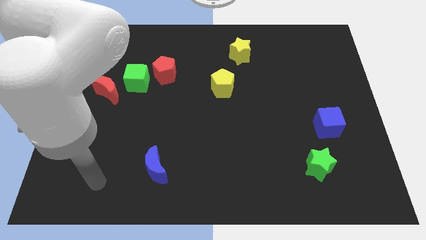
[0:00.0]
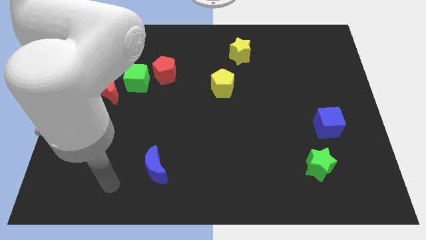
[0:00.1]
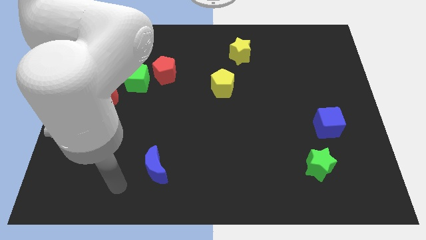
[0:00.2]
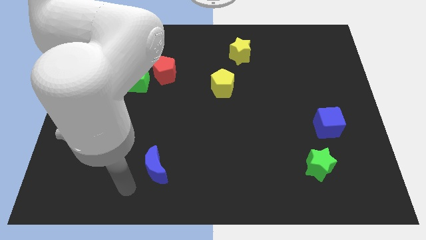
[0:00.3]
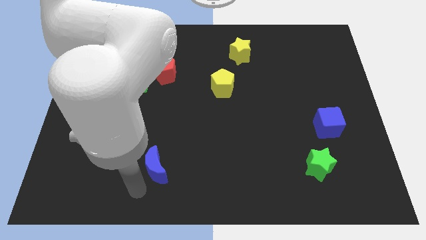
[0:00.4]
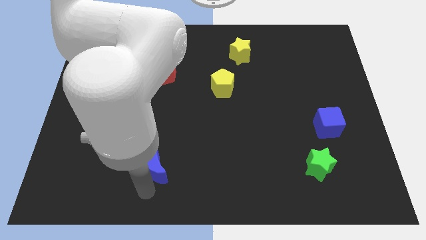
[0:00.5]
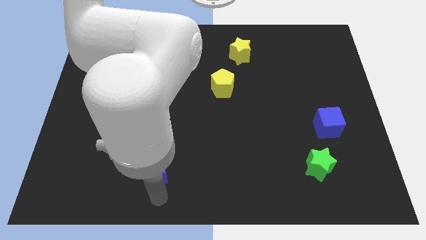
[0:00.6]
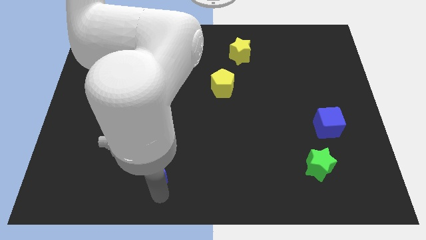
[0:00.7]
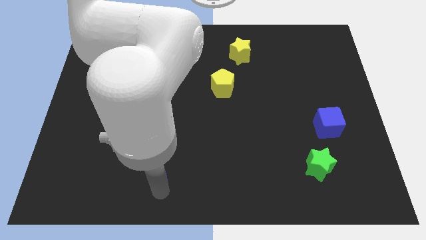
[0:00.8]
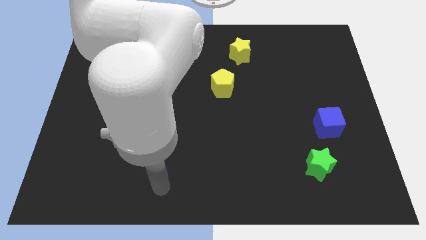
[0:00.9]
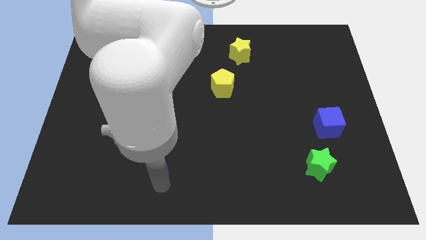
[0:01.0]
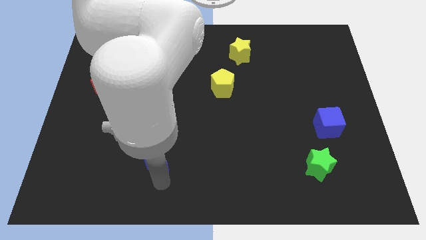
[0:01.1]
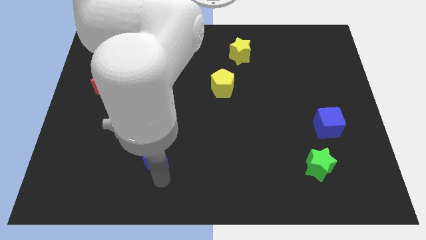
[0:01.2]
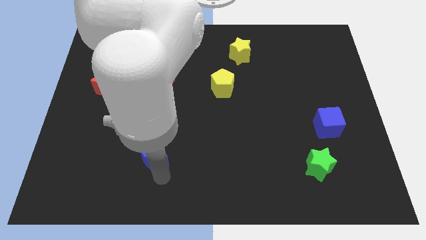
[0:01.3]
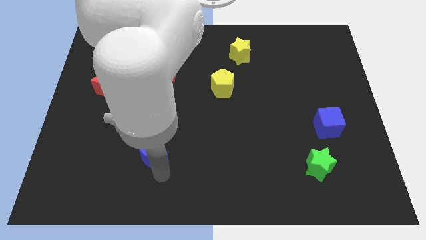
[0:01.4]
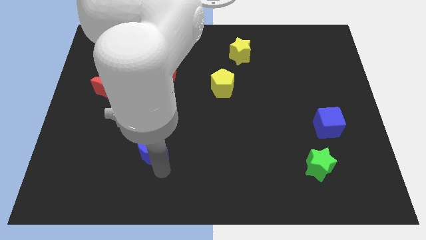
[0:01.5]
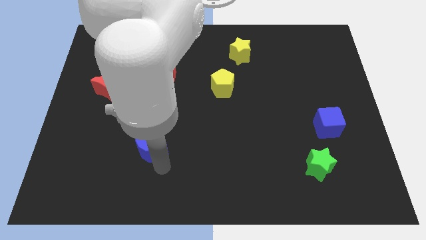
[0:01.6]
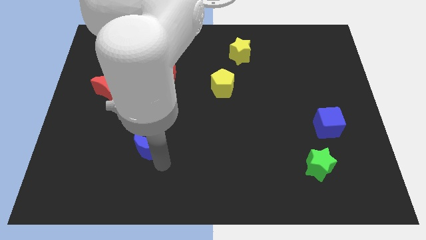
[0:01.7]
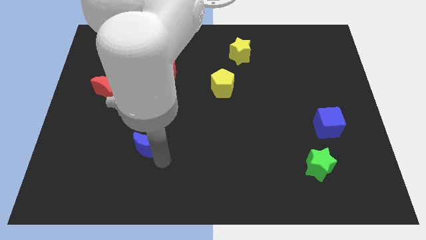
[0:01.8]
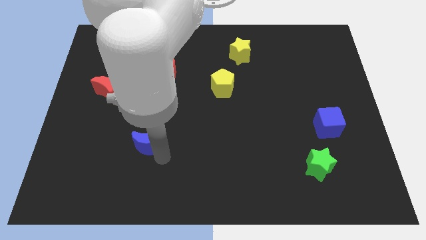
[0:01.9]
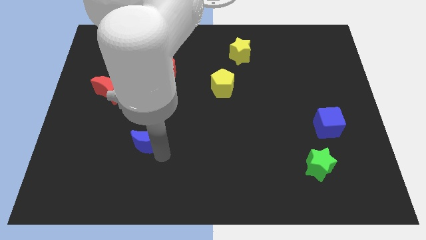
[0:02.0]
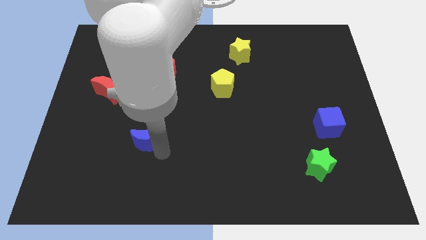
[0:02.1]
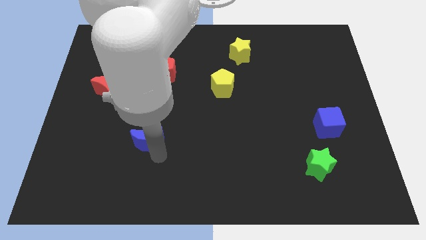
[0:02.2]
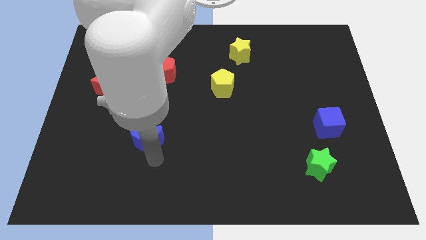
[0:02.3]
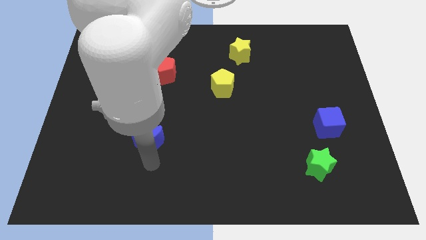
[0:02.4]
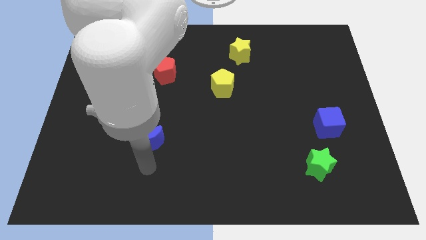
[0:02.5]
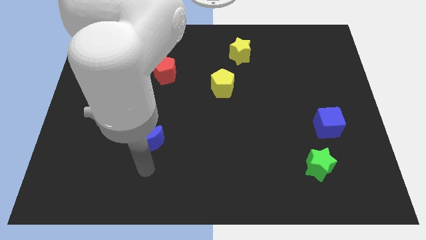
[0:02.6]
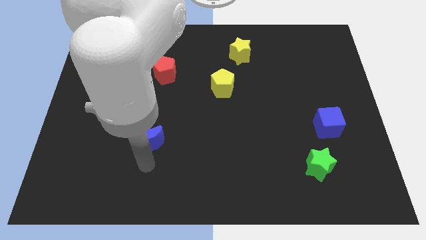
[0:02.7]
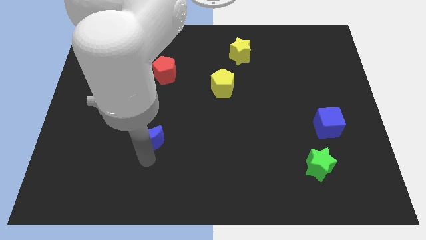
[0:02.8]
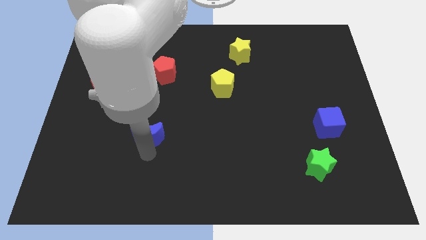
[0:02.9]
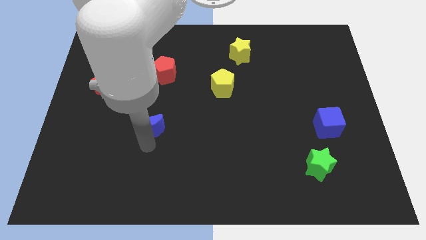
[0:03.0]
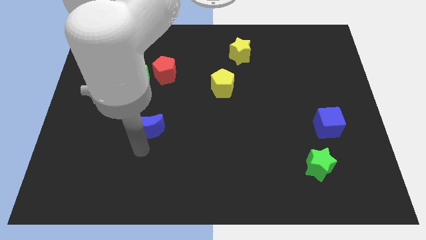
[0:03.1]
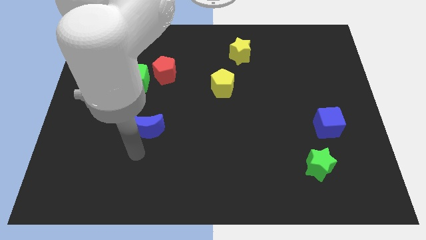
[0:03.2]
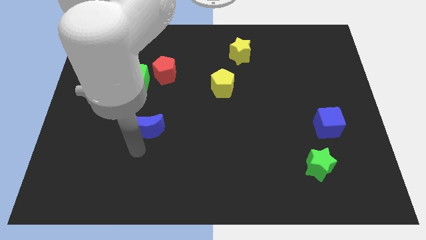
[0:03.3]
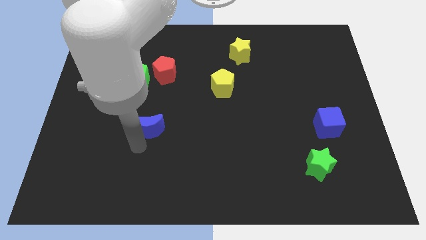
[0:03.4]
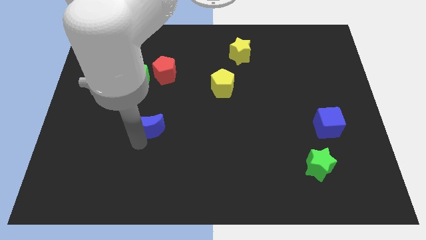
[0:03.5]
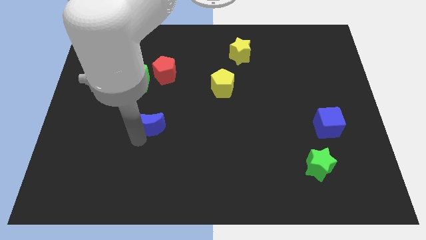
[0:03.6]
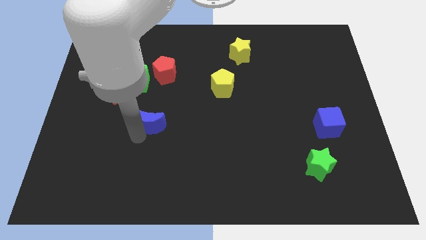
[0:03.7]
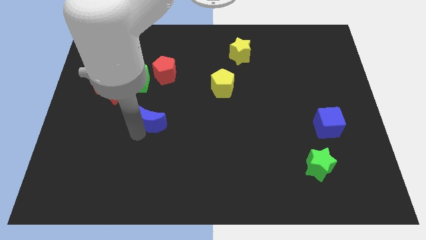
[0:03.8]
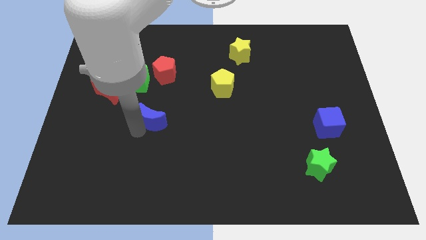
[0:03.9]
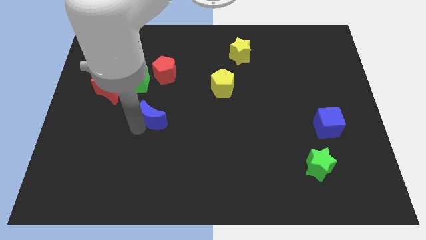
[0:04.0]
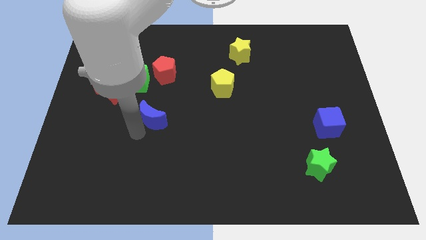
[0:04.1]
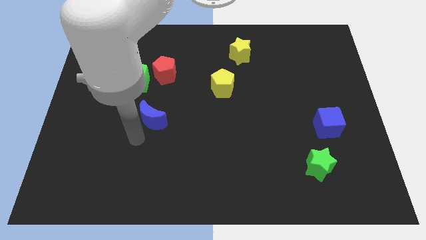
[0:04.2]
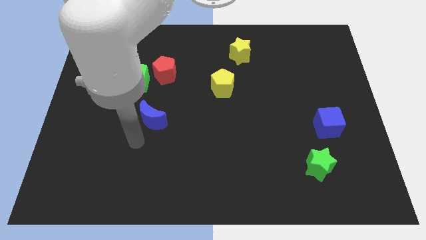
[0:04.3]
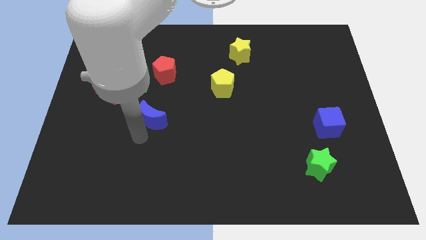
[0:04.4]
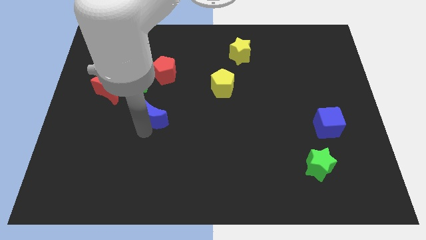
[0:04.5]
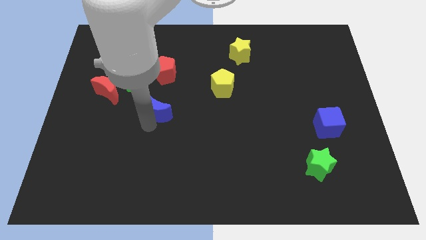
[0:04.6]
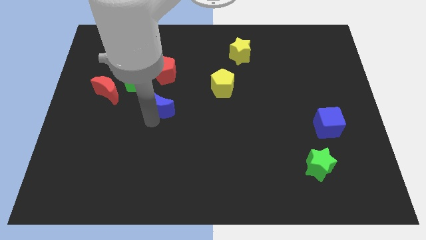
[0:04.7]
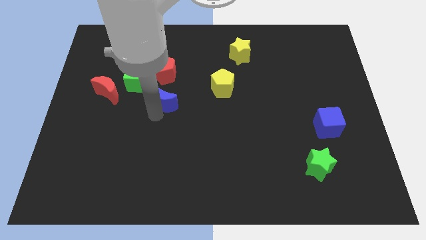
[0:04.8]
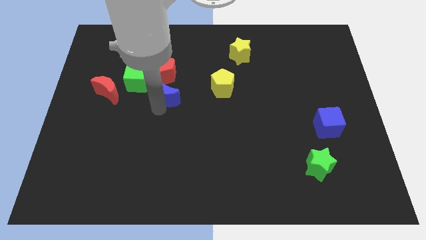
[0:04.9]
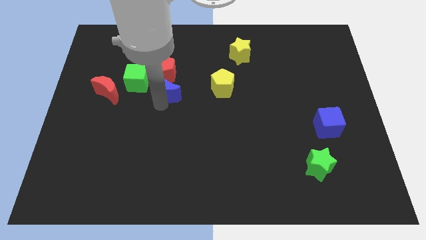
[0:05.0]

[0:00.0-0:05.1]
slide the blue moon upwards

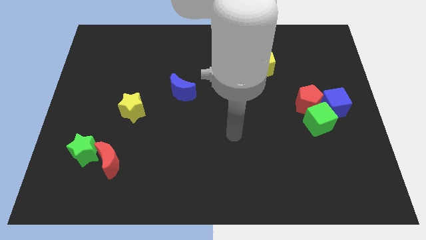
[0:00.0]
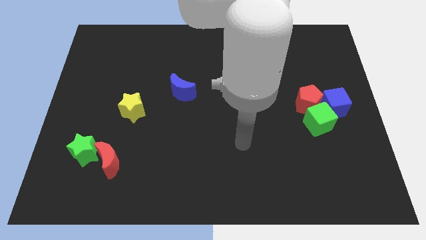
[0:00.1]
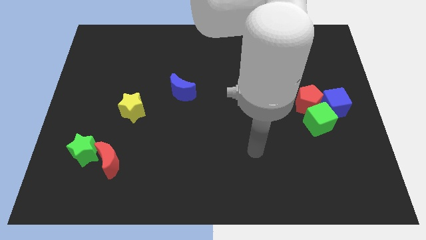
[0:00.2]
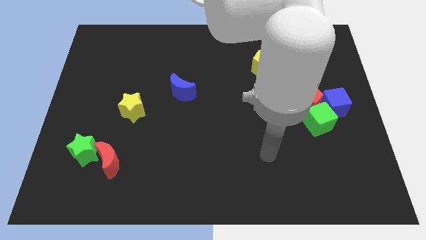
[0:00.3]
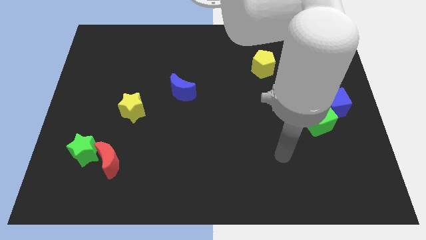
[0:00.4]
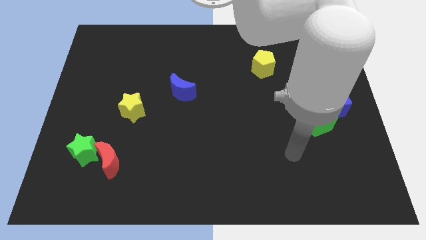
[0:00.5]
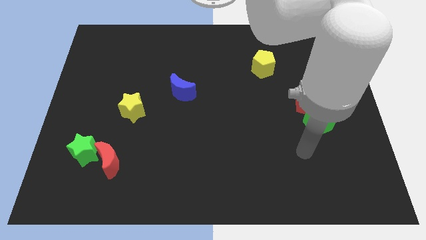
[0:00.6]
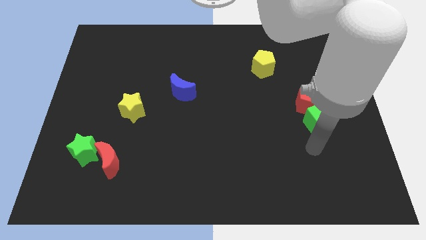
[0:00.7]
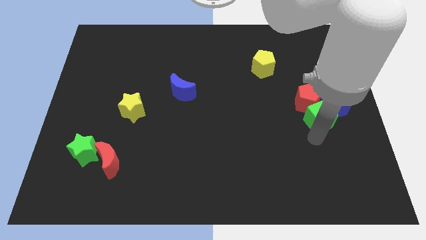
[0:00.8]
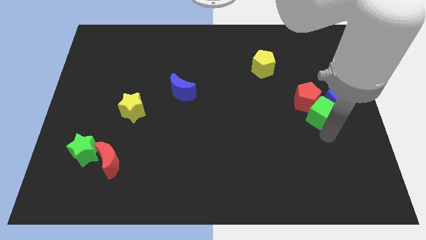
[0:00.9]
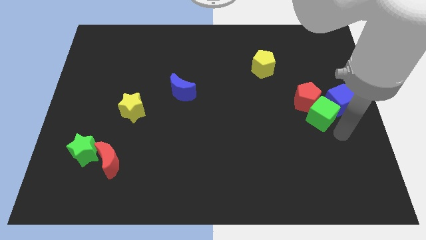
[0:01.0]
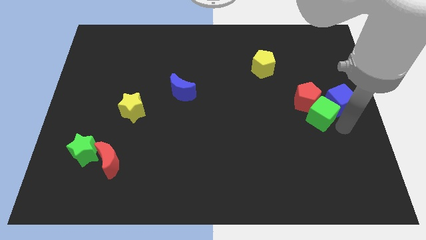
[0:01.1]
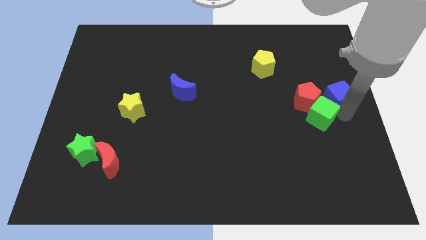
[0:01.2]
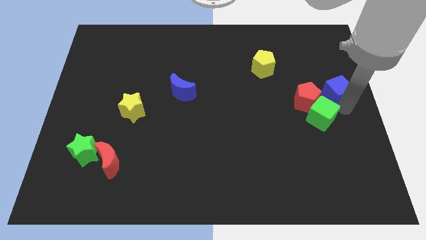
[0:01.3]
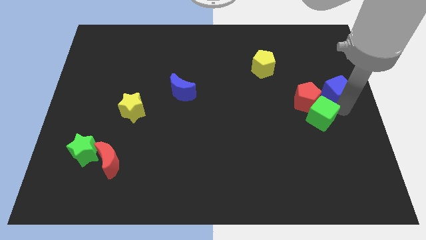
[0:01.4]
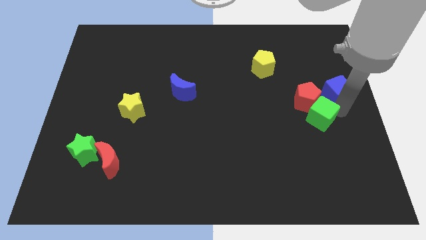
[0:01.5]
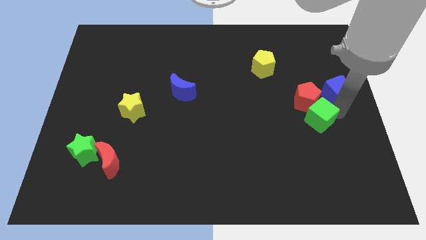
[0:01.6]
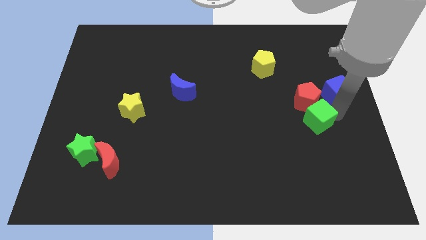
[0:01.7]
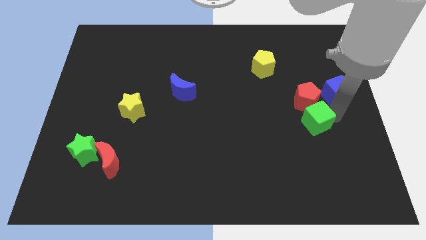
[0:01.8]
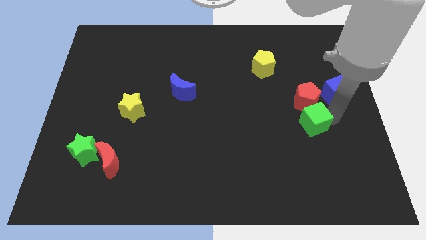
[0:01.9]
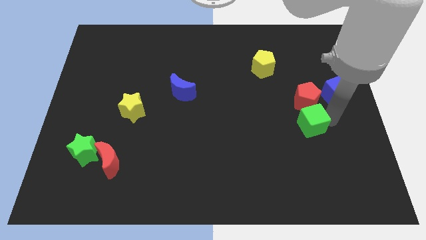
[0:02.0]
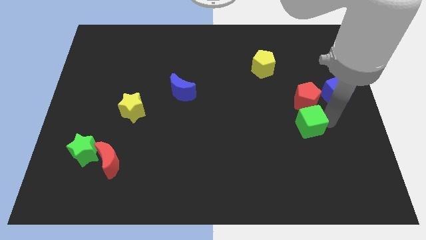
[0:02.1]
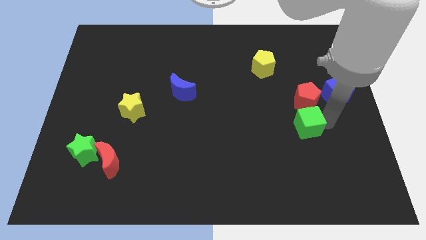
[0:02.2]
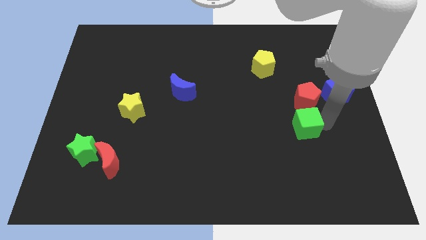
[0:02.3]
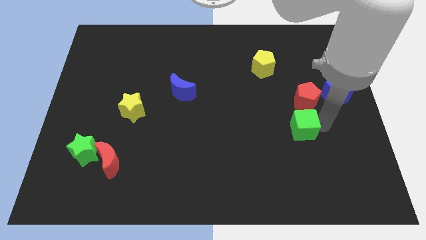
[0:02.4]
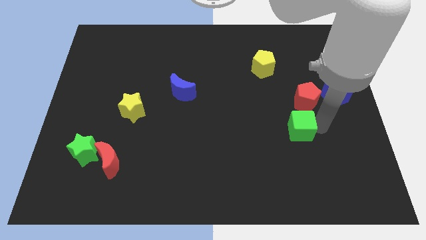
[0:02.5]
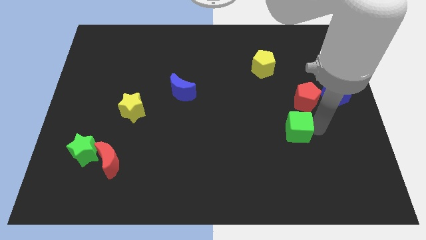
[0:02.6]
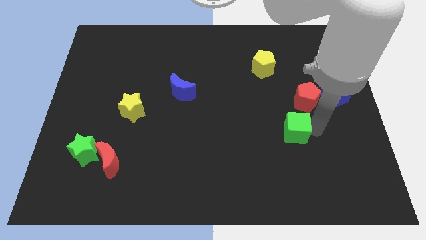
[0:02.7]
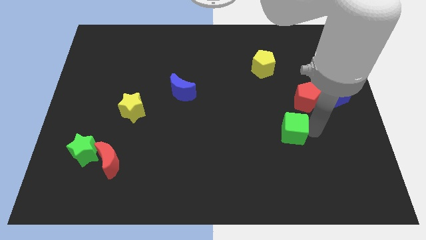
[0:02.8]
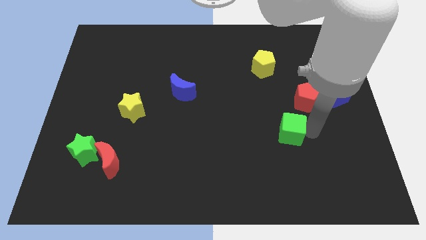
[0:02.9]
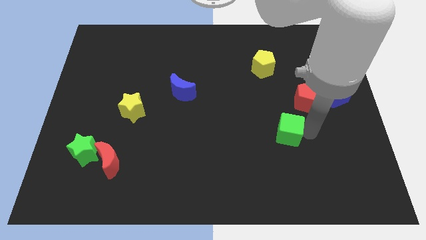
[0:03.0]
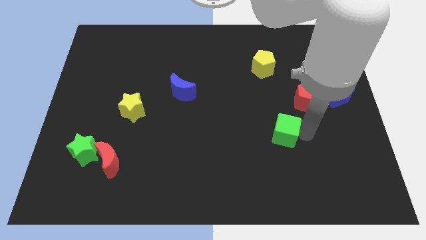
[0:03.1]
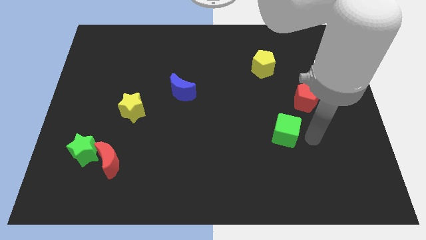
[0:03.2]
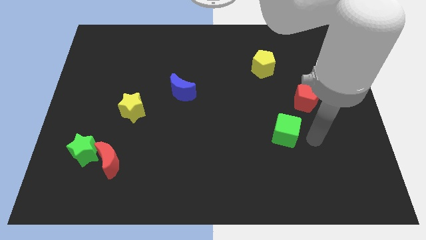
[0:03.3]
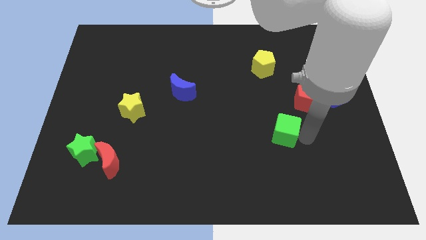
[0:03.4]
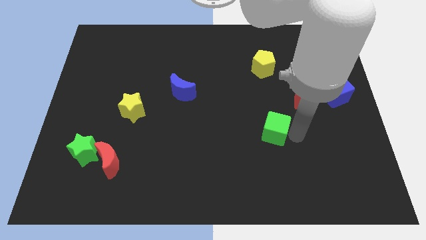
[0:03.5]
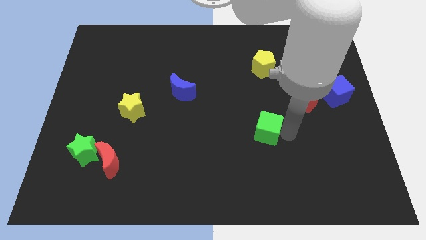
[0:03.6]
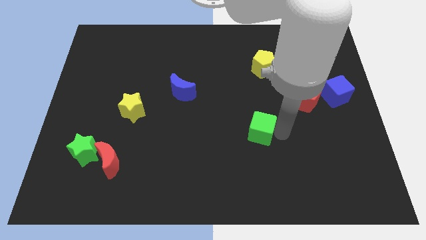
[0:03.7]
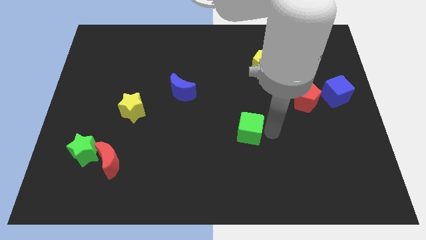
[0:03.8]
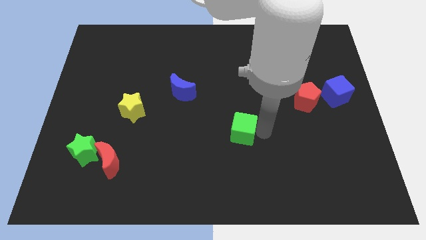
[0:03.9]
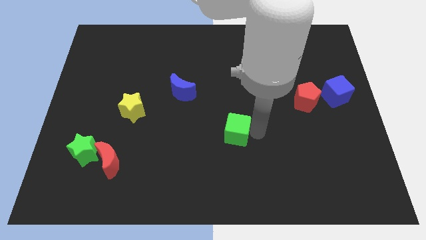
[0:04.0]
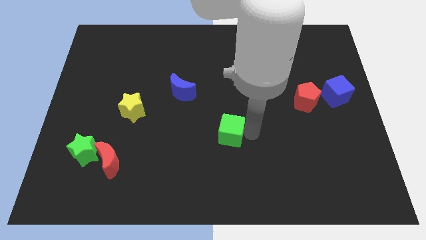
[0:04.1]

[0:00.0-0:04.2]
push the green cube left
